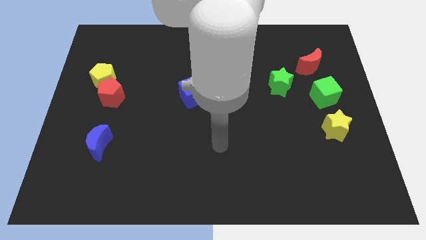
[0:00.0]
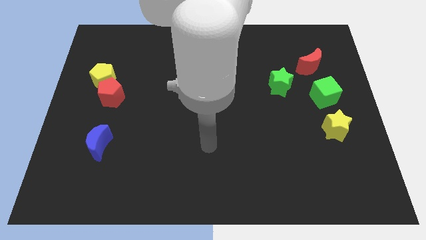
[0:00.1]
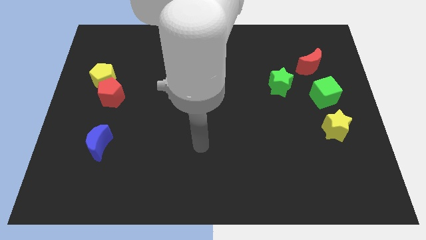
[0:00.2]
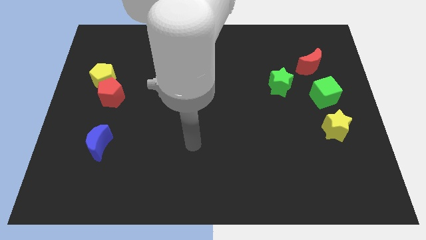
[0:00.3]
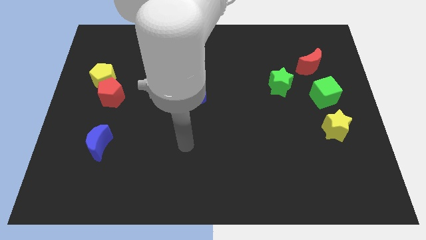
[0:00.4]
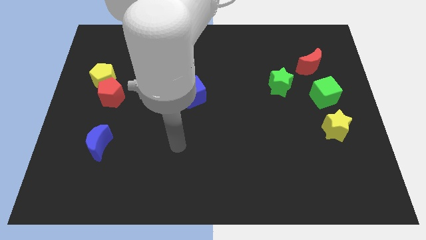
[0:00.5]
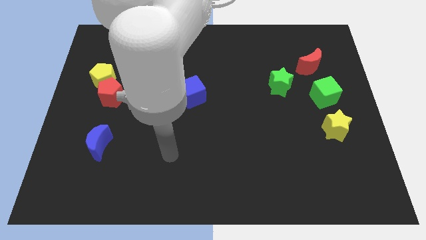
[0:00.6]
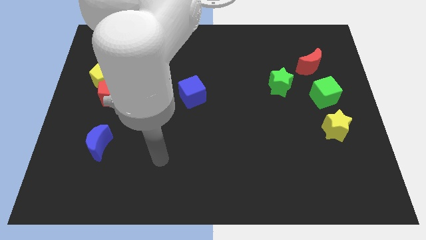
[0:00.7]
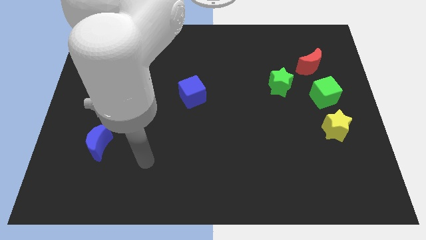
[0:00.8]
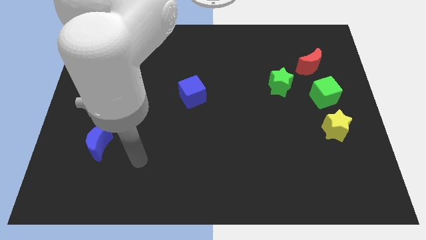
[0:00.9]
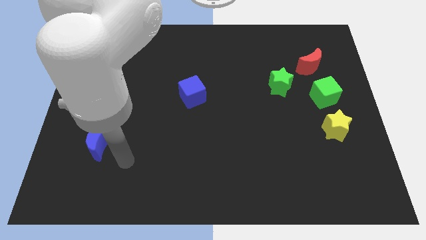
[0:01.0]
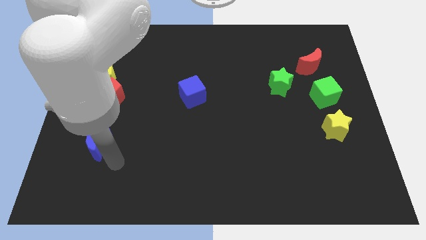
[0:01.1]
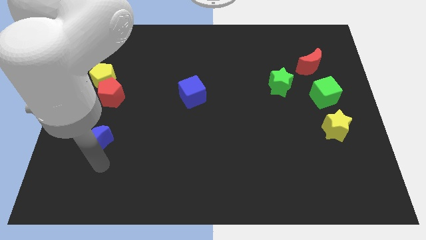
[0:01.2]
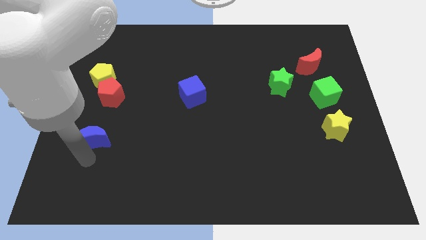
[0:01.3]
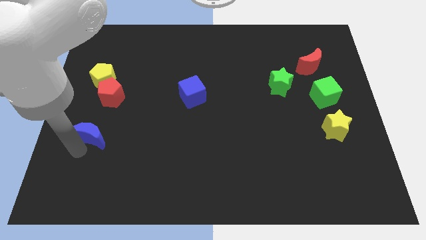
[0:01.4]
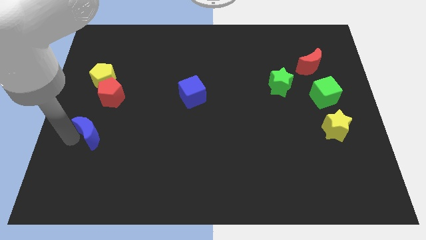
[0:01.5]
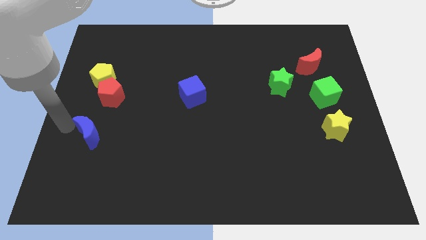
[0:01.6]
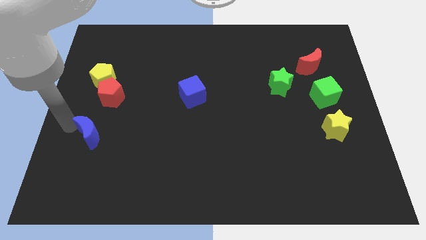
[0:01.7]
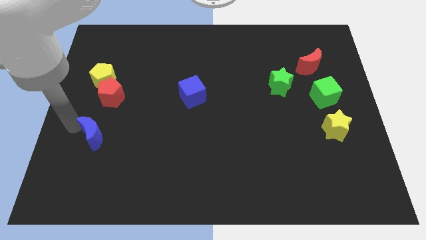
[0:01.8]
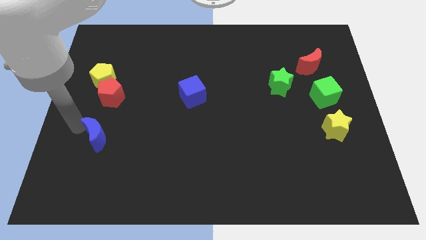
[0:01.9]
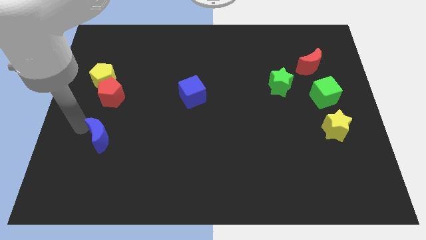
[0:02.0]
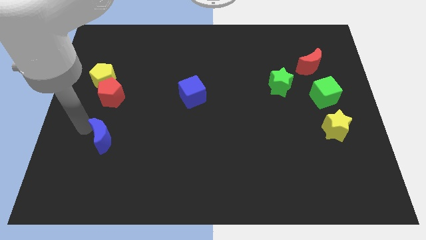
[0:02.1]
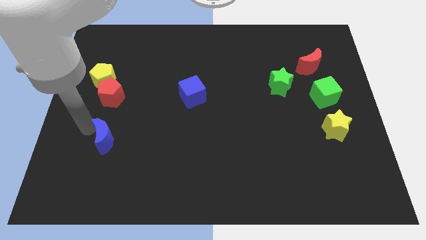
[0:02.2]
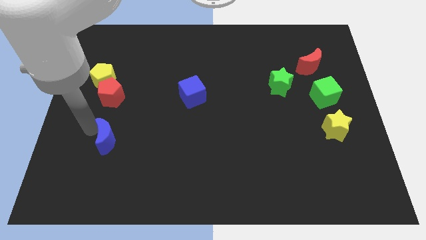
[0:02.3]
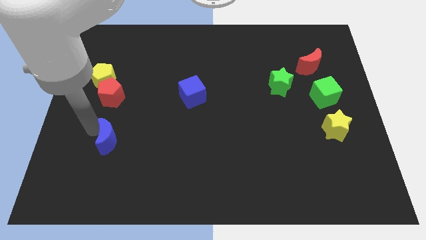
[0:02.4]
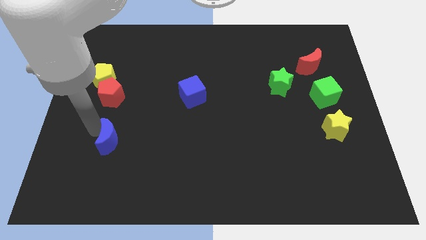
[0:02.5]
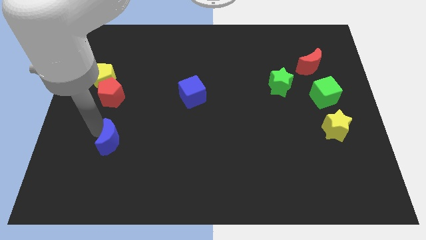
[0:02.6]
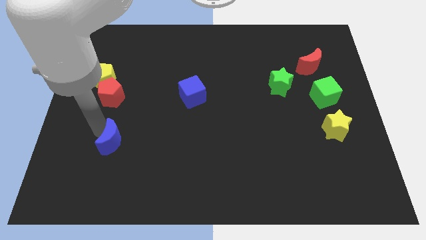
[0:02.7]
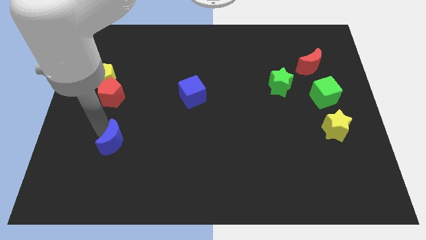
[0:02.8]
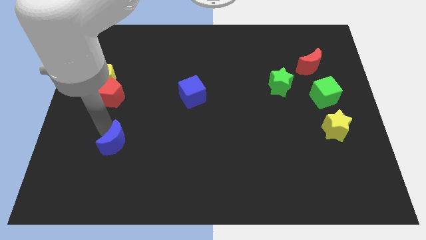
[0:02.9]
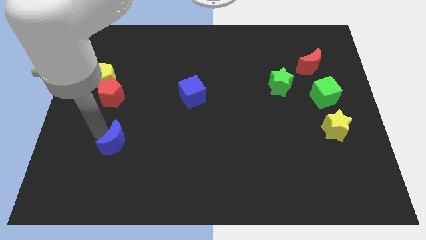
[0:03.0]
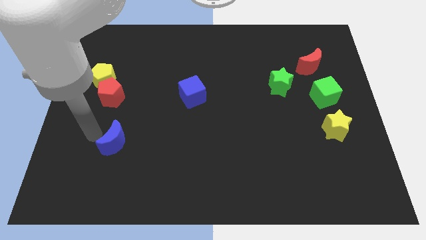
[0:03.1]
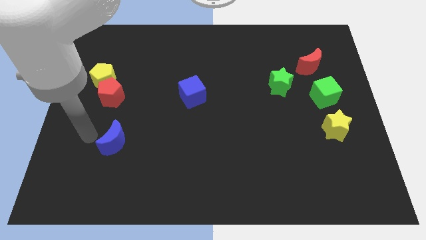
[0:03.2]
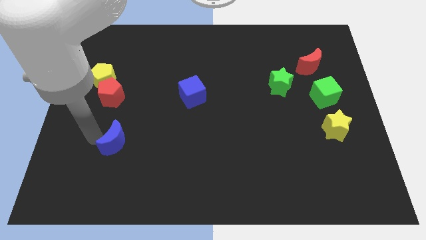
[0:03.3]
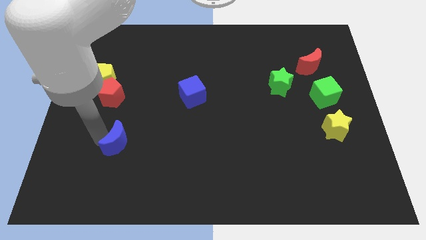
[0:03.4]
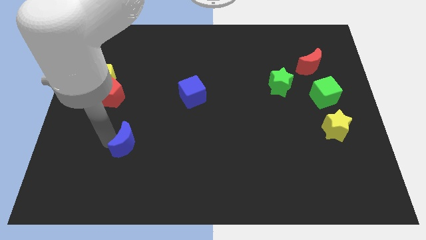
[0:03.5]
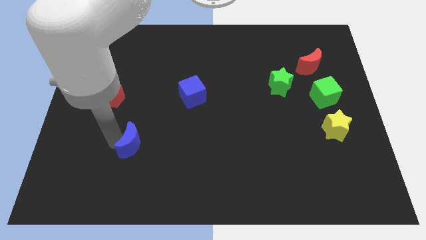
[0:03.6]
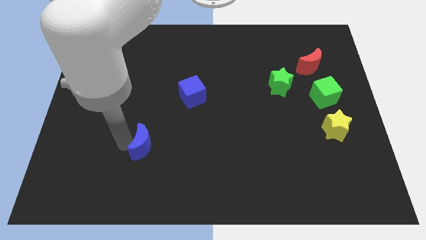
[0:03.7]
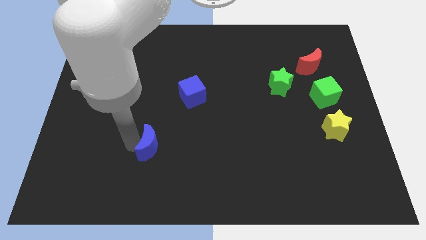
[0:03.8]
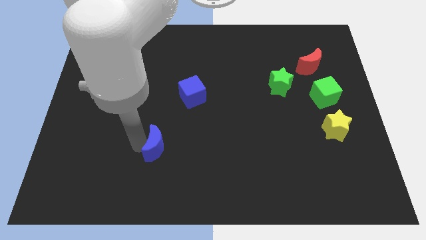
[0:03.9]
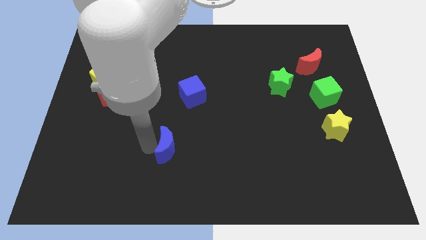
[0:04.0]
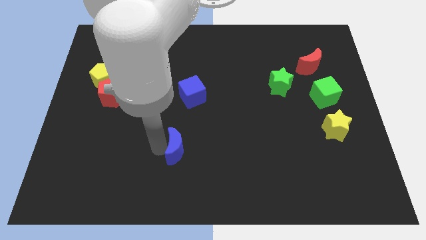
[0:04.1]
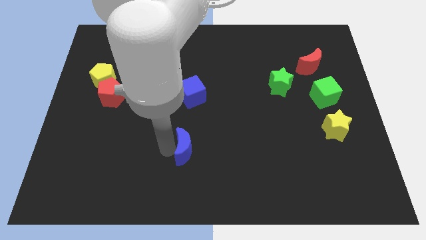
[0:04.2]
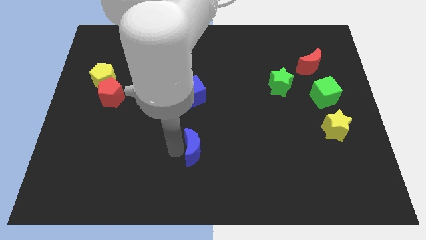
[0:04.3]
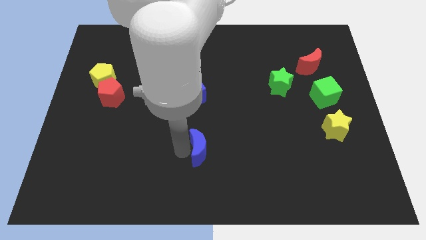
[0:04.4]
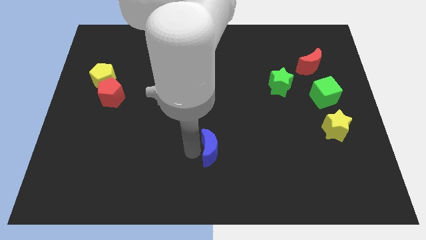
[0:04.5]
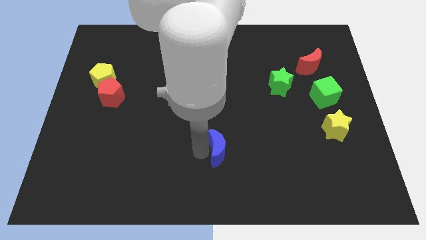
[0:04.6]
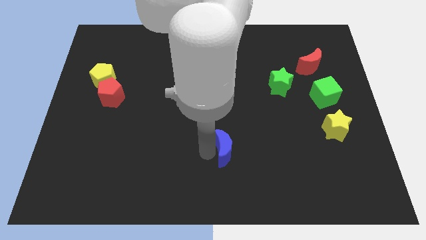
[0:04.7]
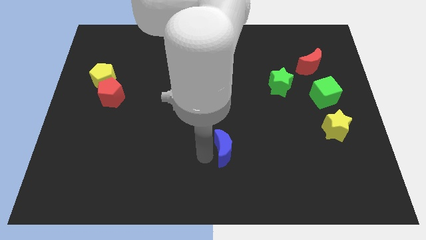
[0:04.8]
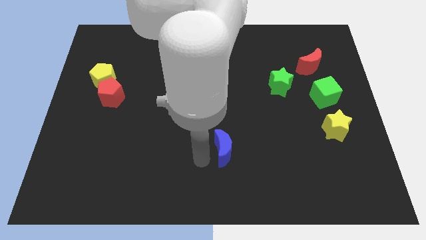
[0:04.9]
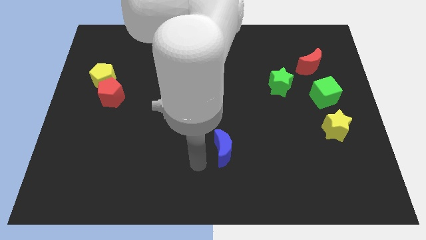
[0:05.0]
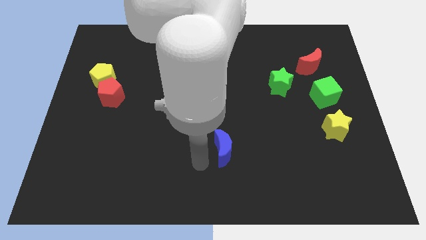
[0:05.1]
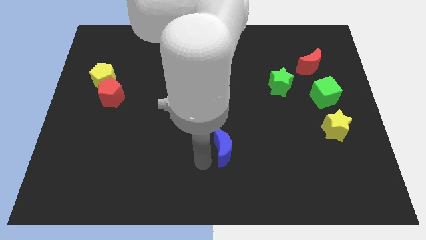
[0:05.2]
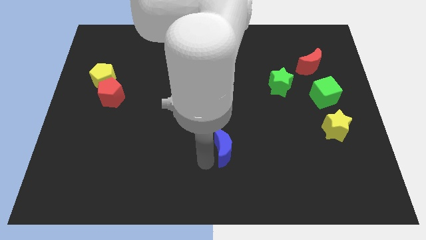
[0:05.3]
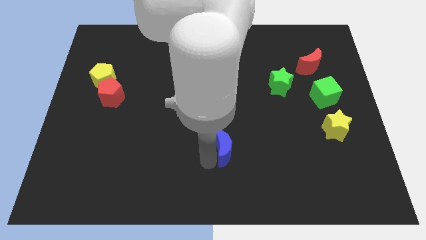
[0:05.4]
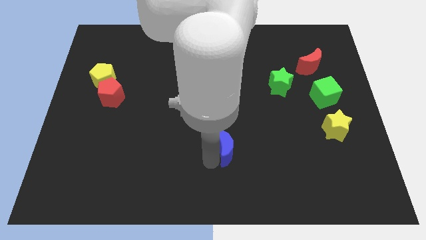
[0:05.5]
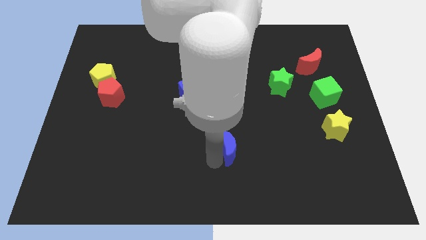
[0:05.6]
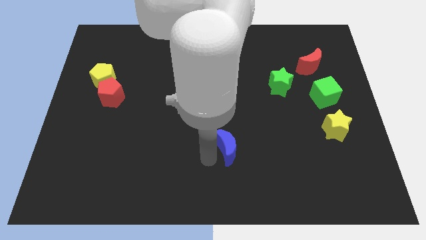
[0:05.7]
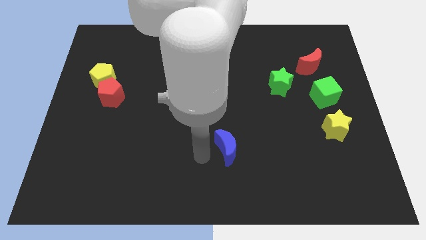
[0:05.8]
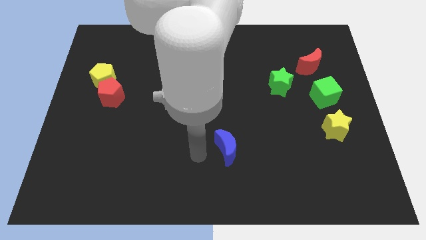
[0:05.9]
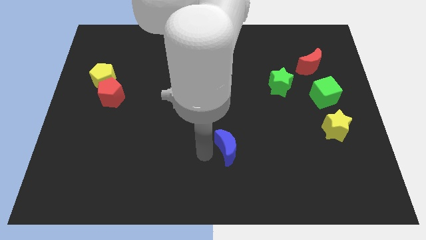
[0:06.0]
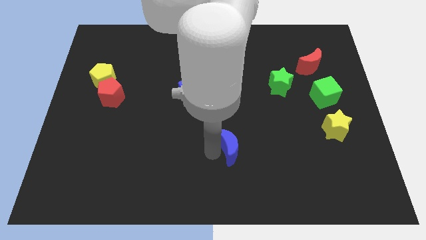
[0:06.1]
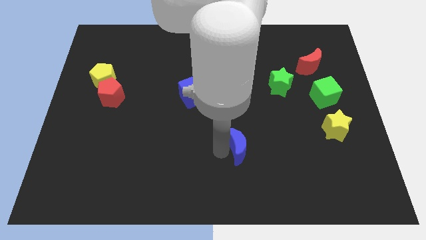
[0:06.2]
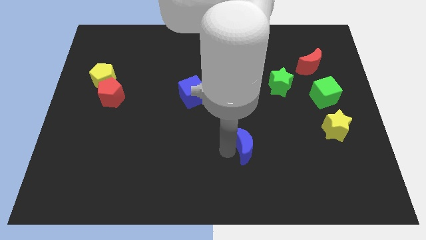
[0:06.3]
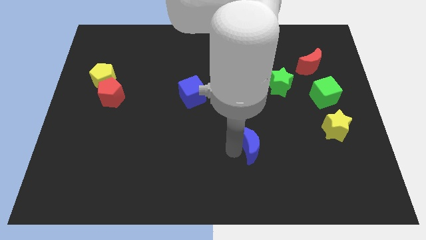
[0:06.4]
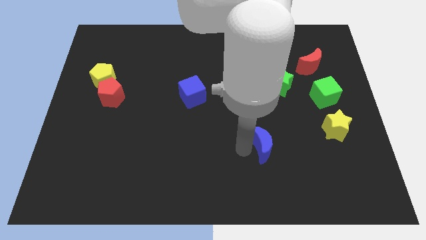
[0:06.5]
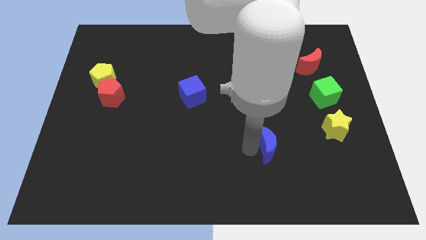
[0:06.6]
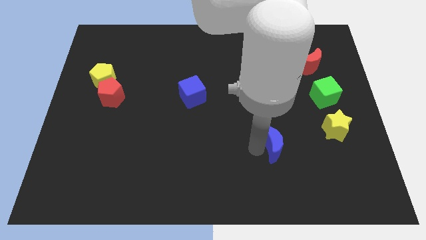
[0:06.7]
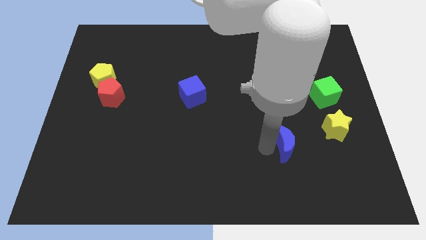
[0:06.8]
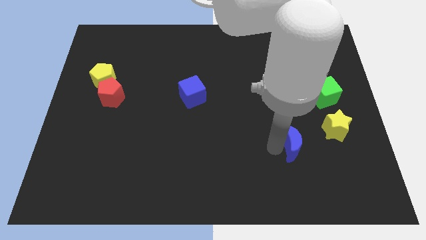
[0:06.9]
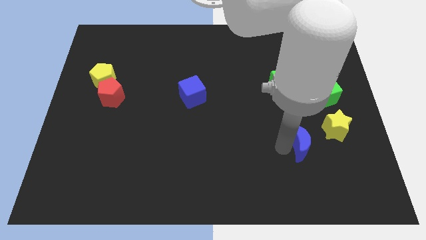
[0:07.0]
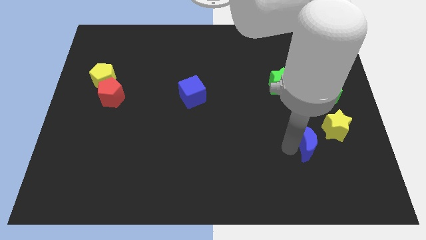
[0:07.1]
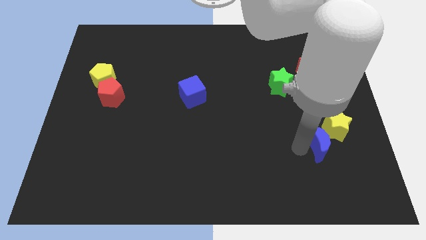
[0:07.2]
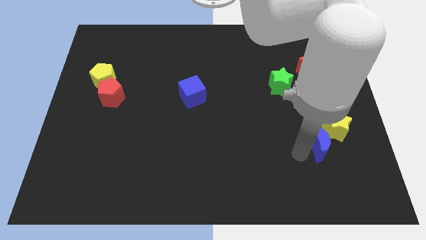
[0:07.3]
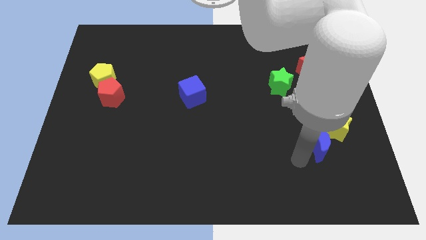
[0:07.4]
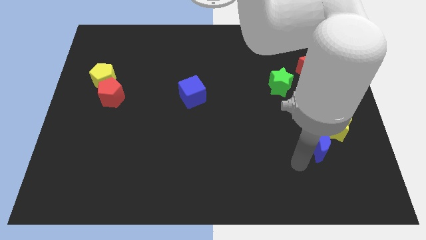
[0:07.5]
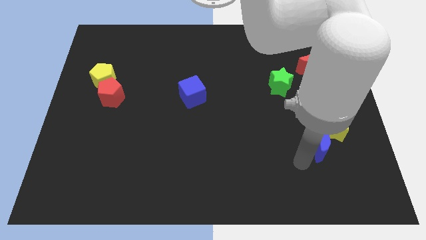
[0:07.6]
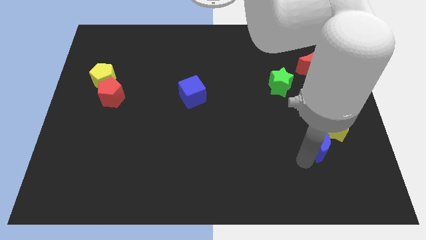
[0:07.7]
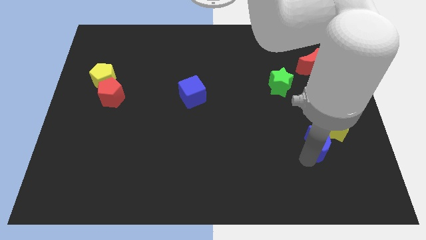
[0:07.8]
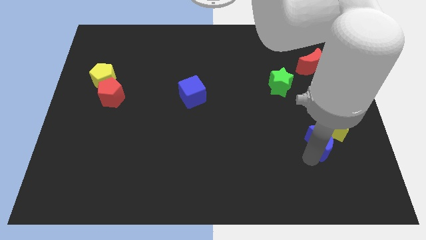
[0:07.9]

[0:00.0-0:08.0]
put the blue moon next to the yellow star

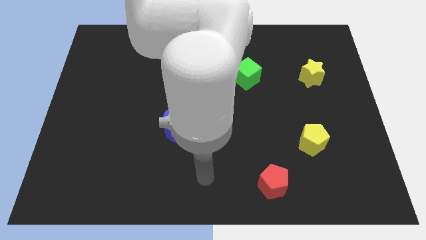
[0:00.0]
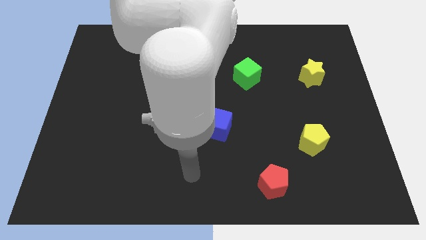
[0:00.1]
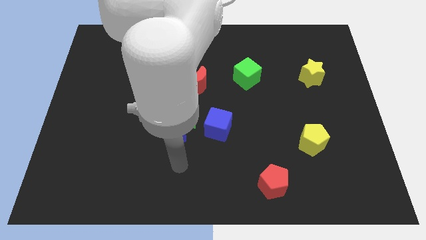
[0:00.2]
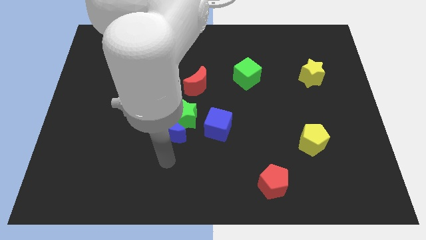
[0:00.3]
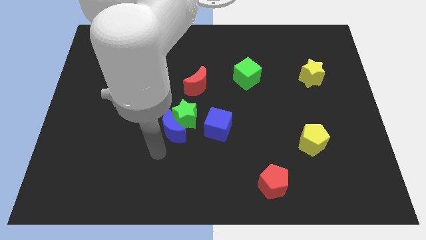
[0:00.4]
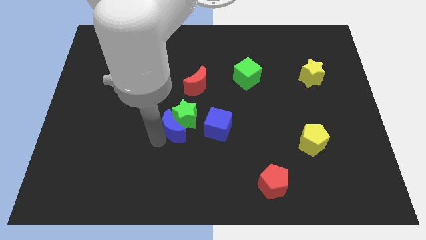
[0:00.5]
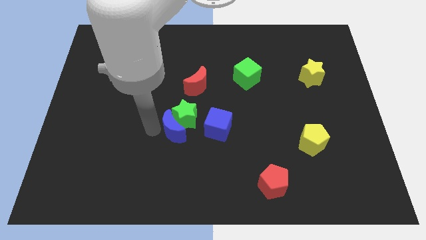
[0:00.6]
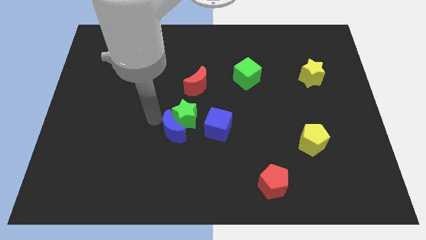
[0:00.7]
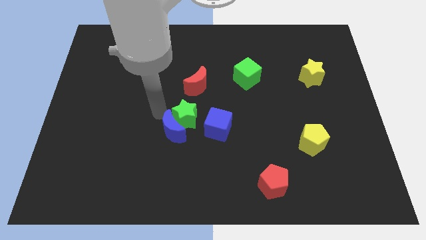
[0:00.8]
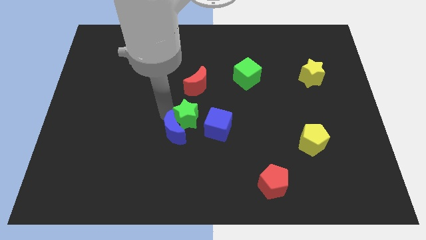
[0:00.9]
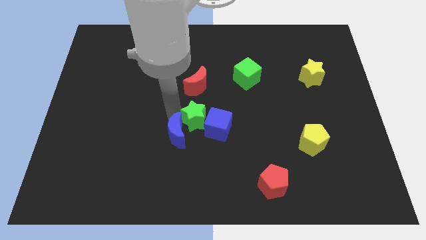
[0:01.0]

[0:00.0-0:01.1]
put the green star towards the blue cube
